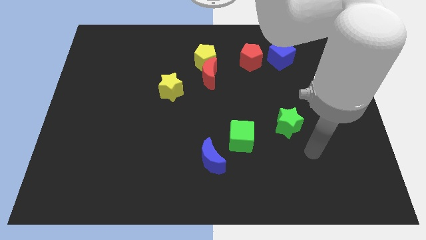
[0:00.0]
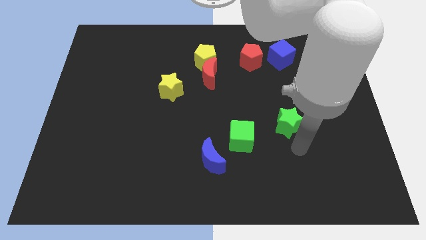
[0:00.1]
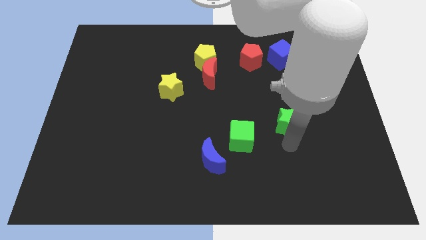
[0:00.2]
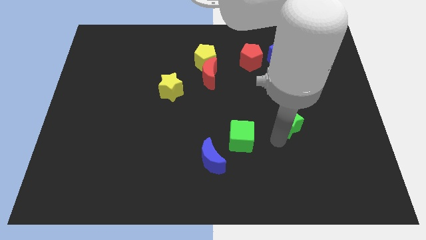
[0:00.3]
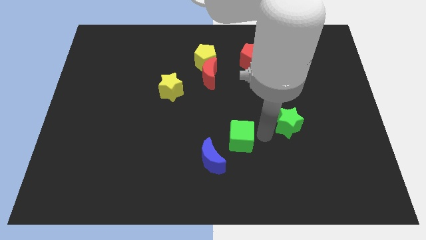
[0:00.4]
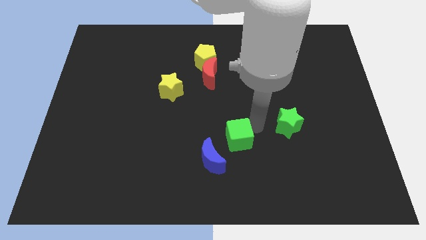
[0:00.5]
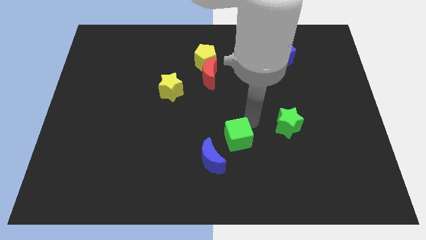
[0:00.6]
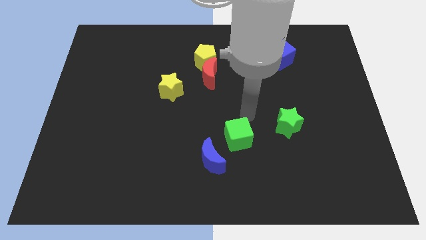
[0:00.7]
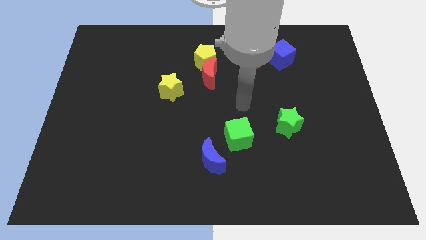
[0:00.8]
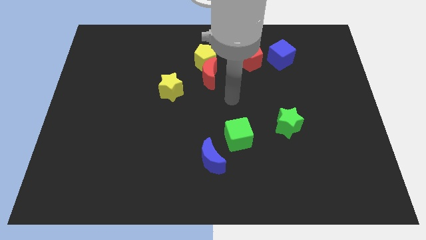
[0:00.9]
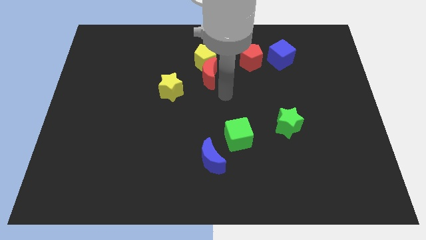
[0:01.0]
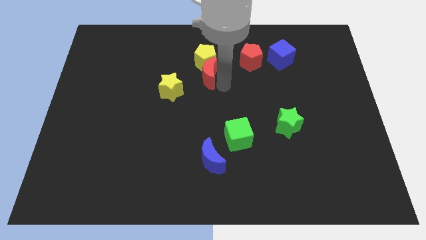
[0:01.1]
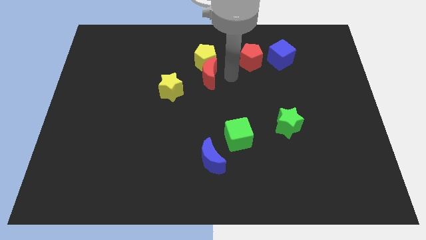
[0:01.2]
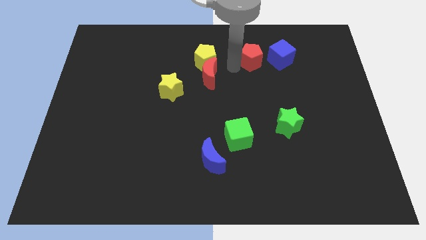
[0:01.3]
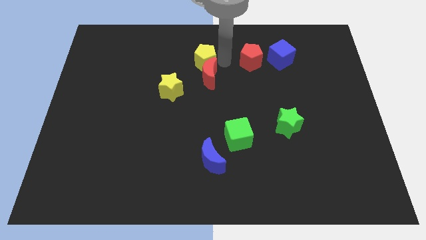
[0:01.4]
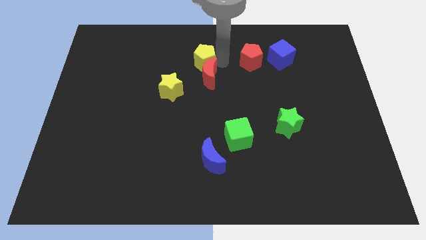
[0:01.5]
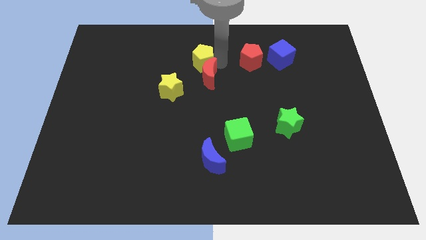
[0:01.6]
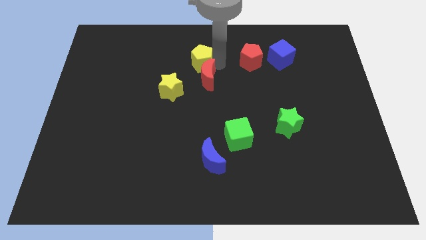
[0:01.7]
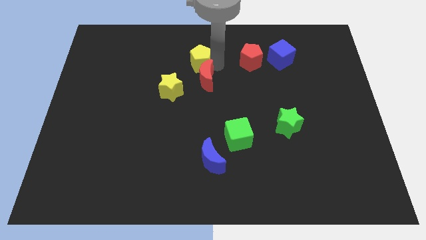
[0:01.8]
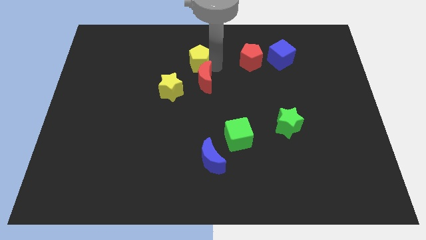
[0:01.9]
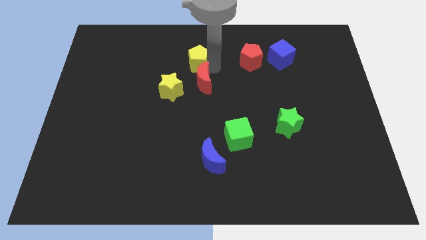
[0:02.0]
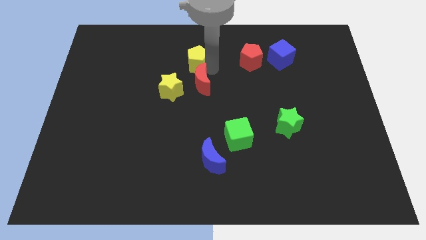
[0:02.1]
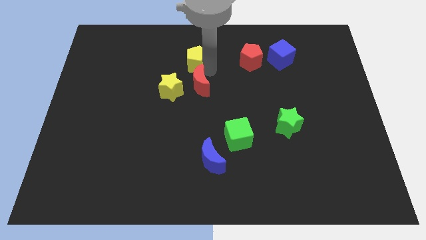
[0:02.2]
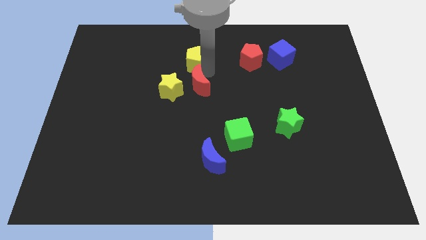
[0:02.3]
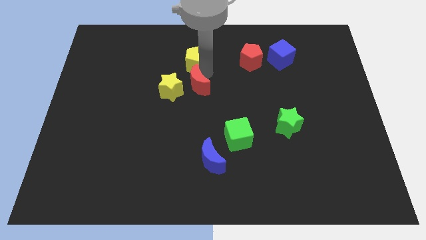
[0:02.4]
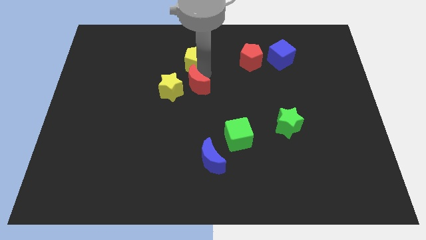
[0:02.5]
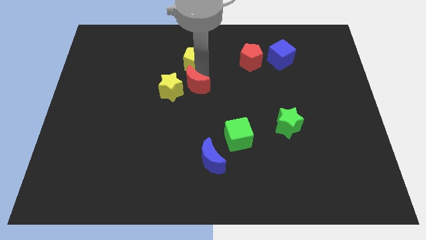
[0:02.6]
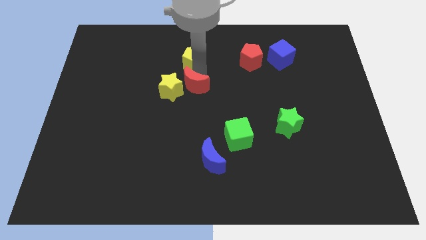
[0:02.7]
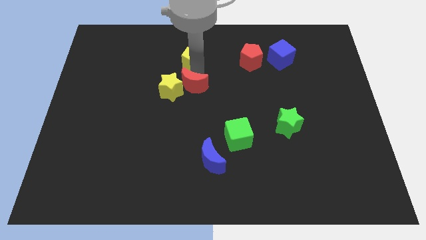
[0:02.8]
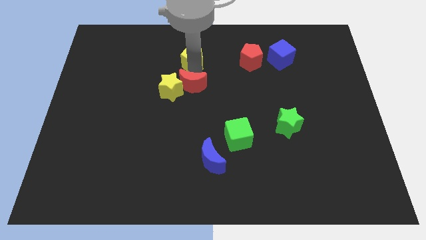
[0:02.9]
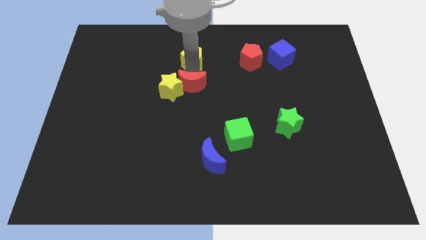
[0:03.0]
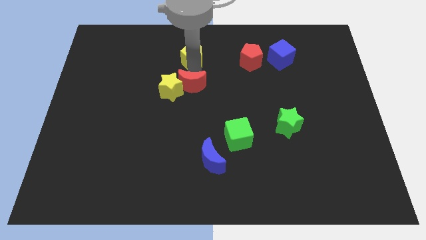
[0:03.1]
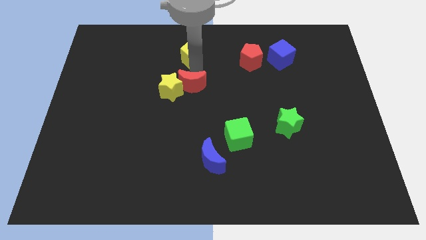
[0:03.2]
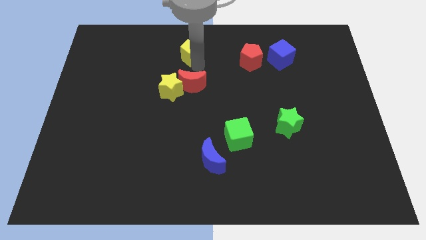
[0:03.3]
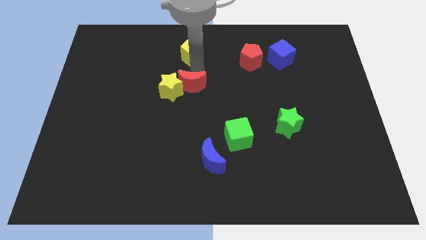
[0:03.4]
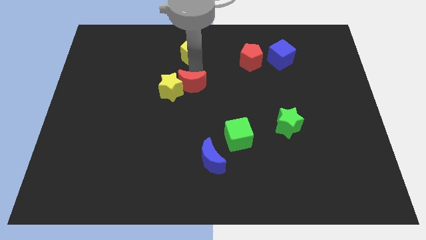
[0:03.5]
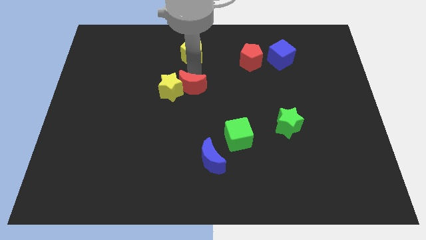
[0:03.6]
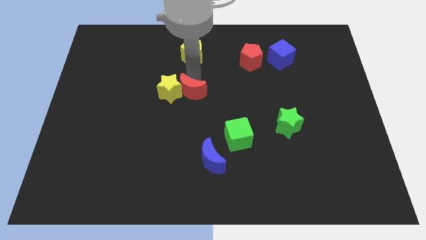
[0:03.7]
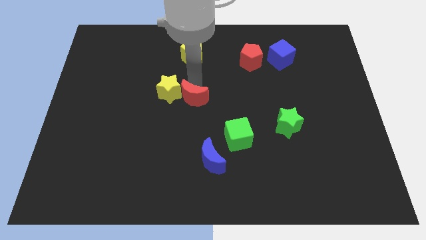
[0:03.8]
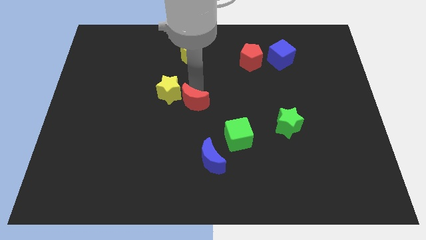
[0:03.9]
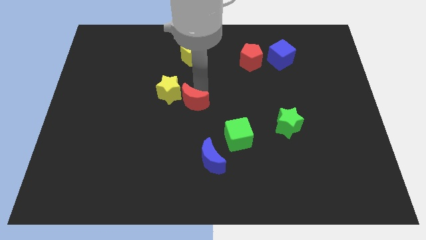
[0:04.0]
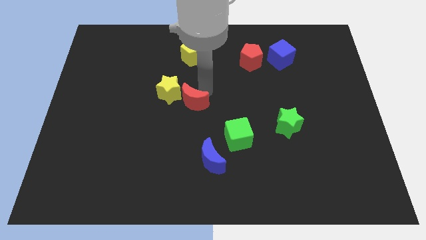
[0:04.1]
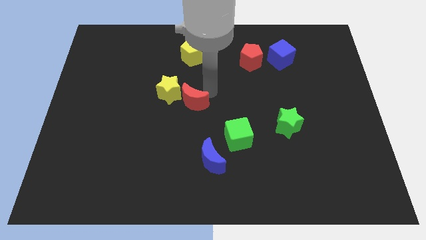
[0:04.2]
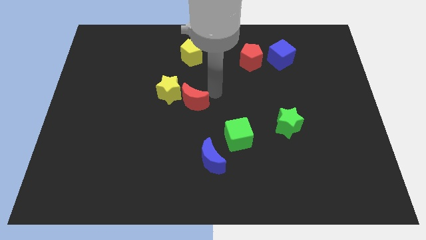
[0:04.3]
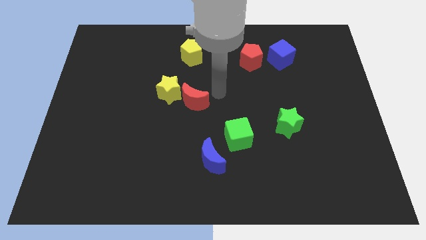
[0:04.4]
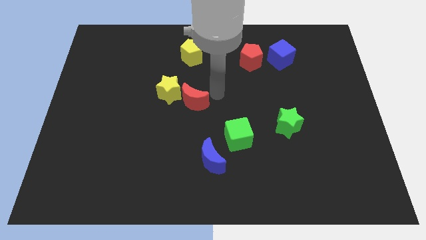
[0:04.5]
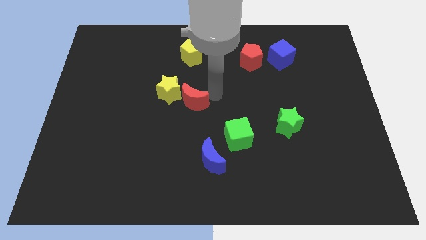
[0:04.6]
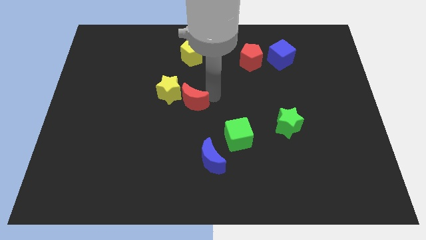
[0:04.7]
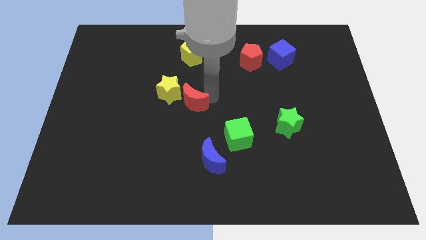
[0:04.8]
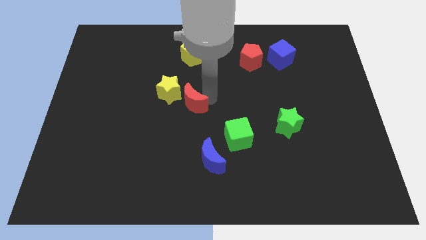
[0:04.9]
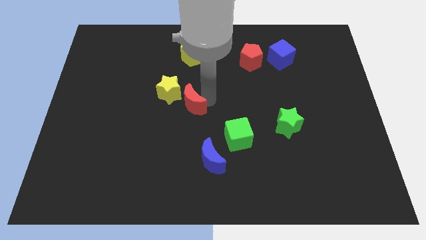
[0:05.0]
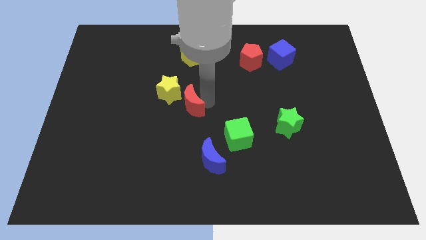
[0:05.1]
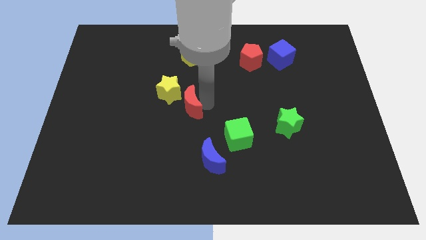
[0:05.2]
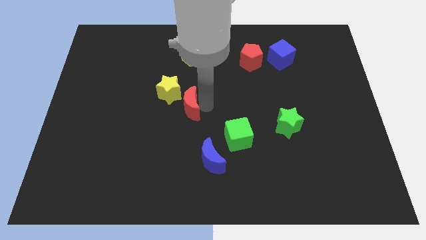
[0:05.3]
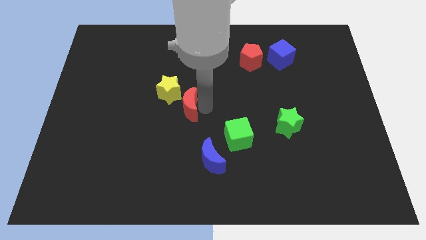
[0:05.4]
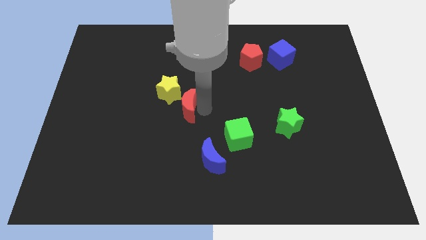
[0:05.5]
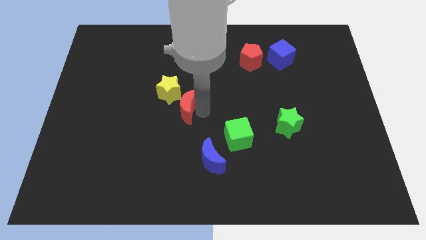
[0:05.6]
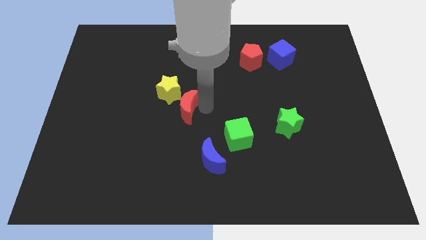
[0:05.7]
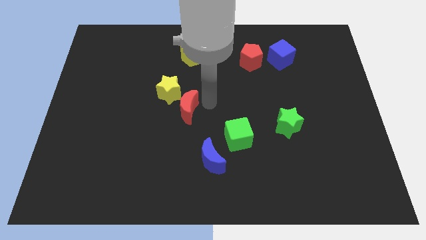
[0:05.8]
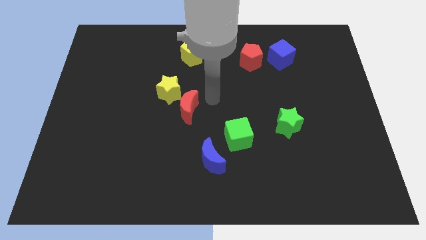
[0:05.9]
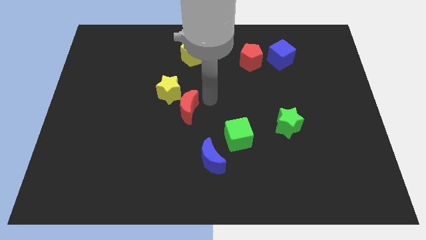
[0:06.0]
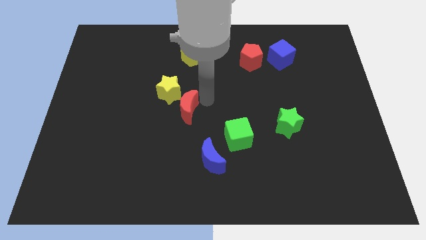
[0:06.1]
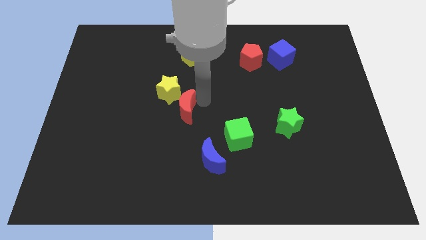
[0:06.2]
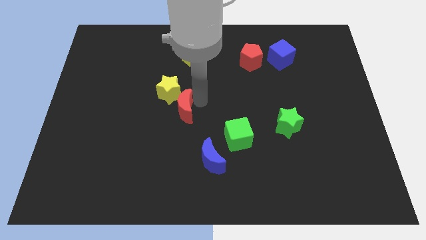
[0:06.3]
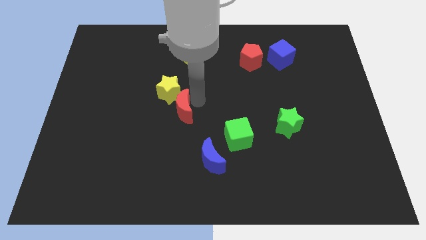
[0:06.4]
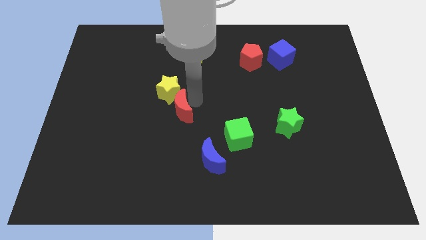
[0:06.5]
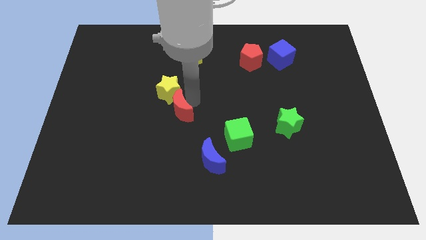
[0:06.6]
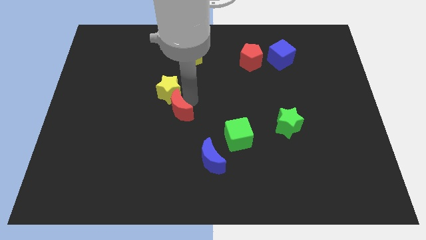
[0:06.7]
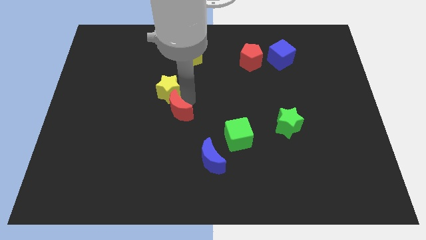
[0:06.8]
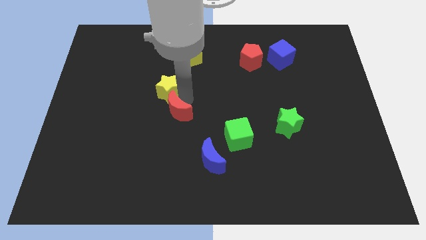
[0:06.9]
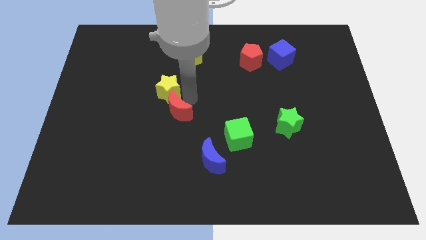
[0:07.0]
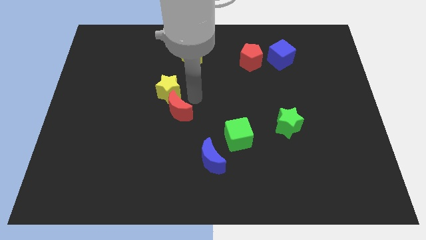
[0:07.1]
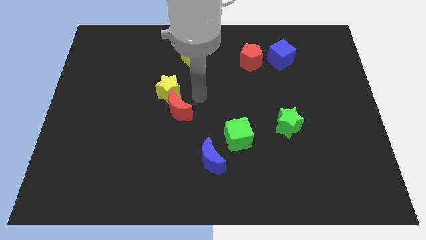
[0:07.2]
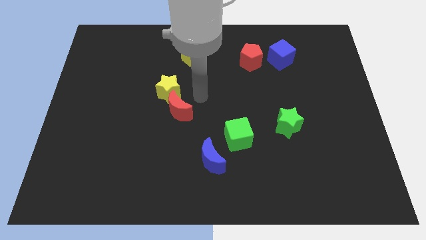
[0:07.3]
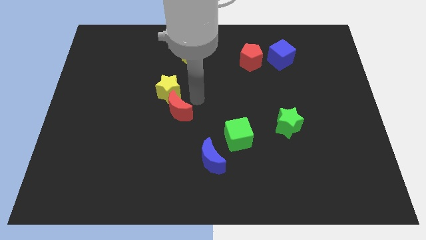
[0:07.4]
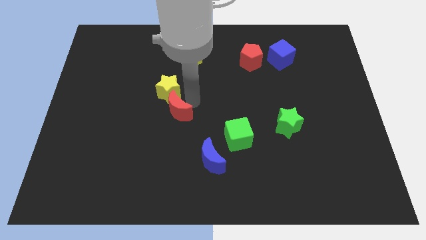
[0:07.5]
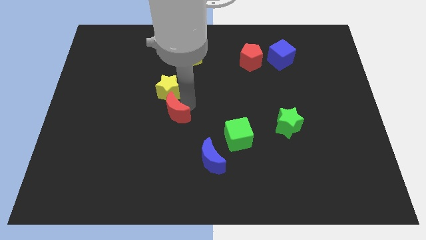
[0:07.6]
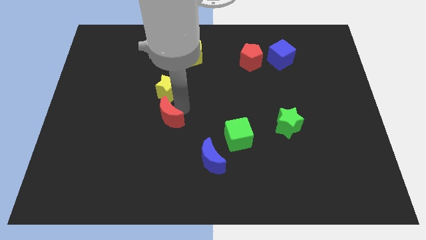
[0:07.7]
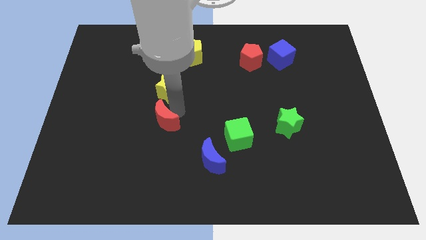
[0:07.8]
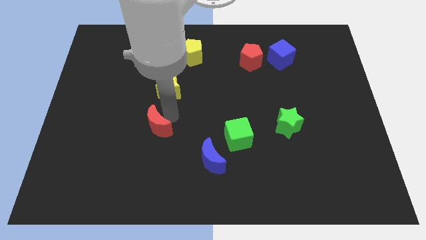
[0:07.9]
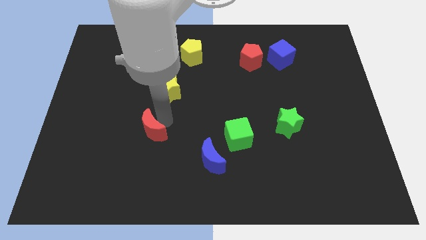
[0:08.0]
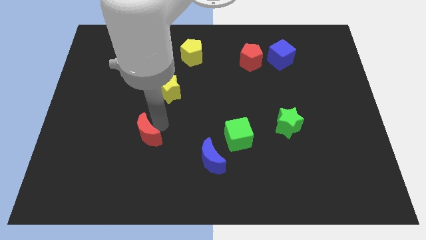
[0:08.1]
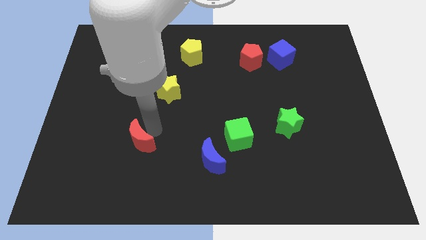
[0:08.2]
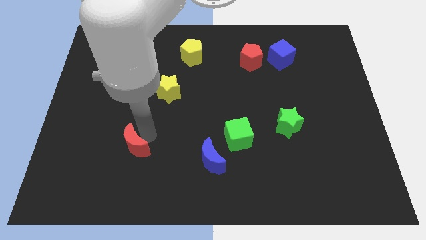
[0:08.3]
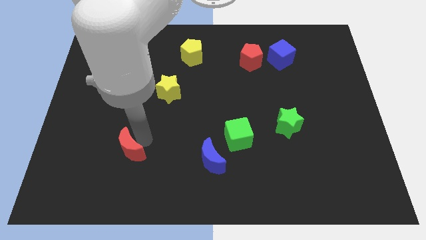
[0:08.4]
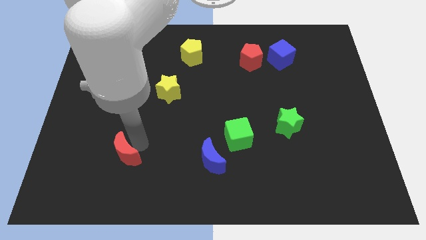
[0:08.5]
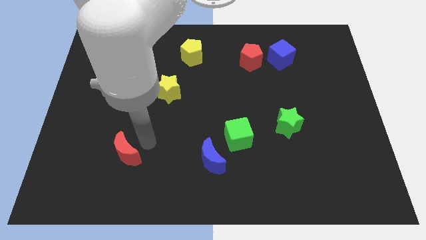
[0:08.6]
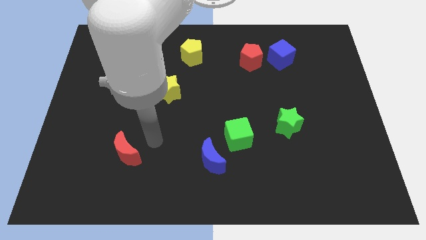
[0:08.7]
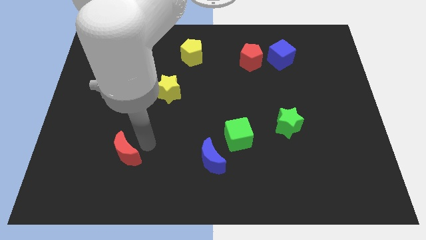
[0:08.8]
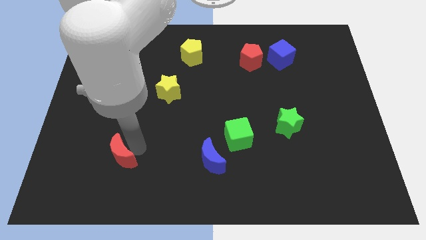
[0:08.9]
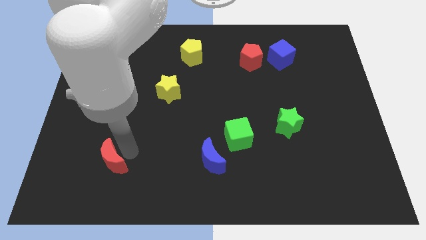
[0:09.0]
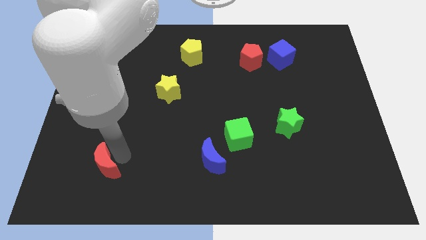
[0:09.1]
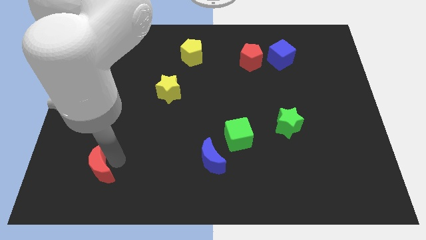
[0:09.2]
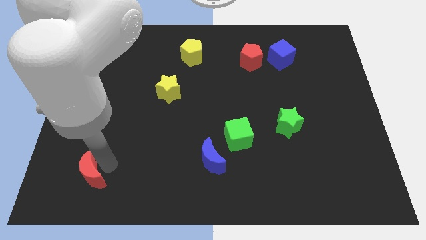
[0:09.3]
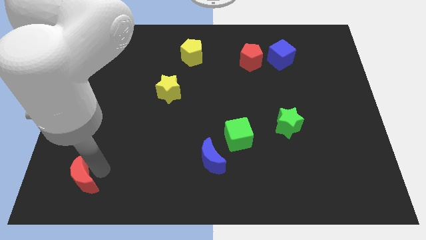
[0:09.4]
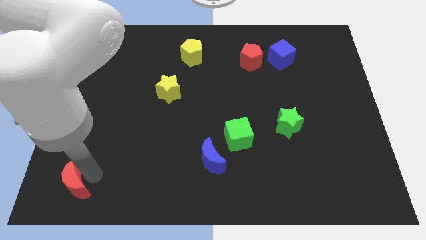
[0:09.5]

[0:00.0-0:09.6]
push the red moon to the bottom left of the board
